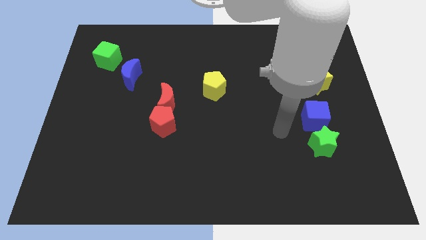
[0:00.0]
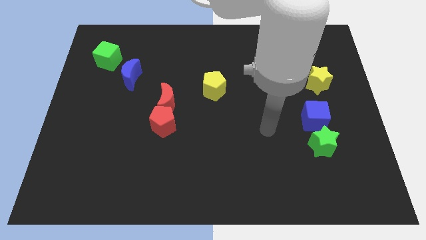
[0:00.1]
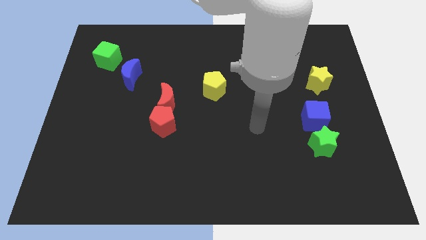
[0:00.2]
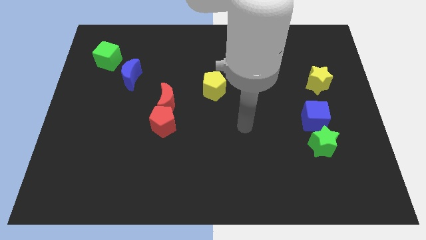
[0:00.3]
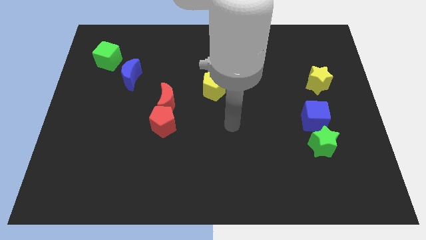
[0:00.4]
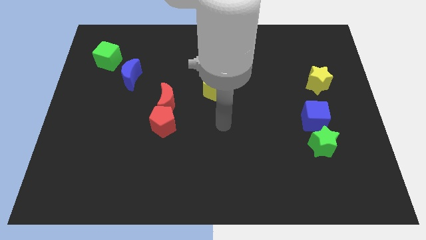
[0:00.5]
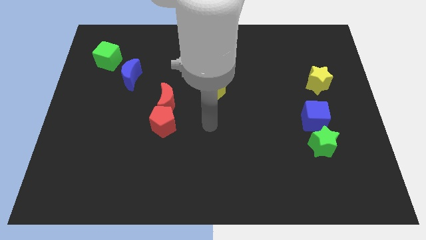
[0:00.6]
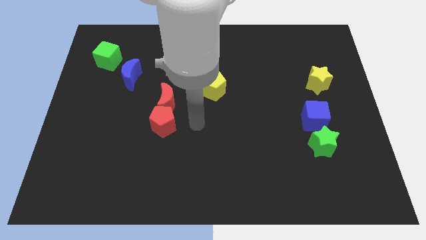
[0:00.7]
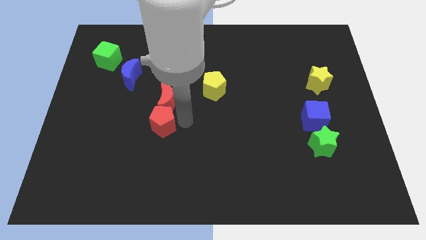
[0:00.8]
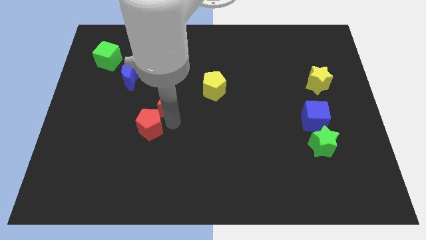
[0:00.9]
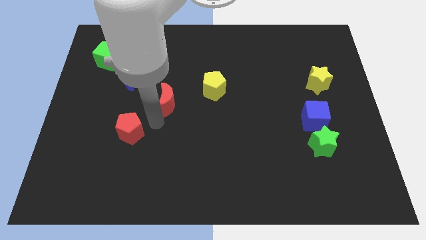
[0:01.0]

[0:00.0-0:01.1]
pull the red moon apart from the red pentagon

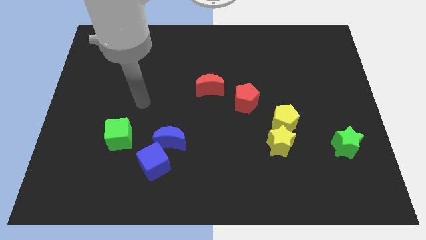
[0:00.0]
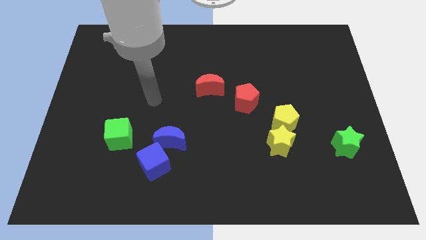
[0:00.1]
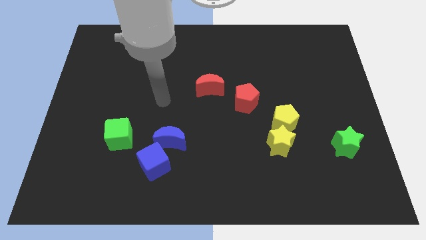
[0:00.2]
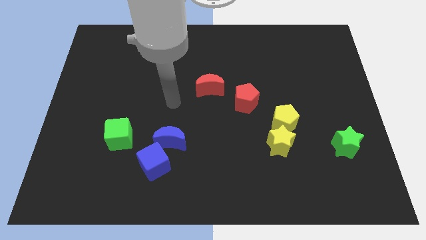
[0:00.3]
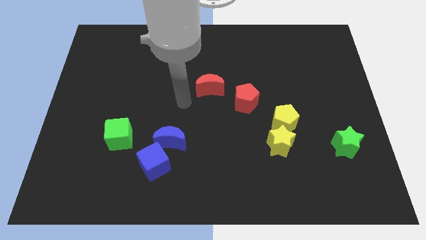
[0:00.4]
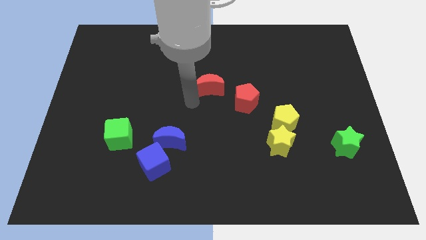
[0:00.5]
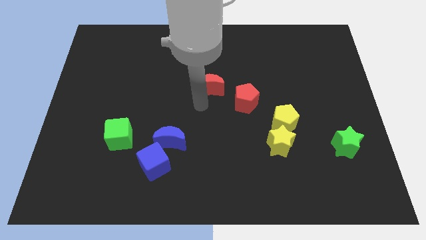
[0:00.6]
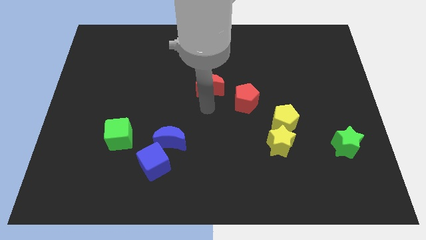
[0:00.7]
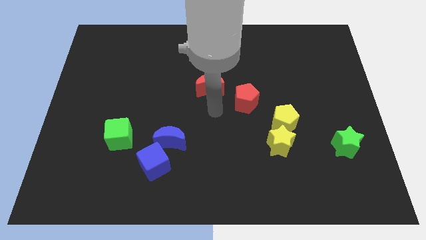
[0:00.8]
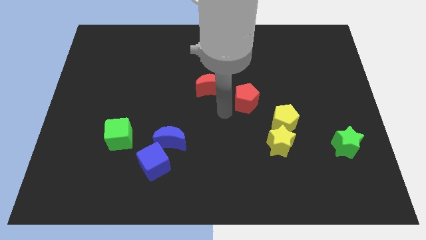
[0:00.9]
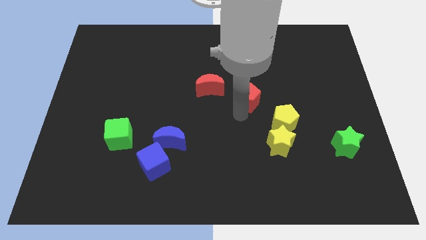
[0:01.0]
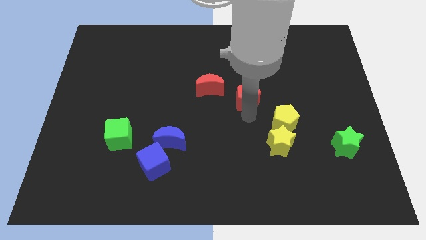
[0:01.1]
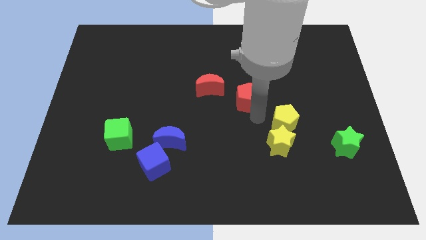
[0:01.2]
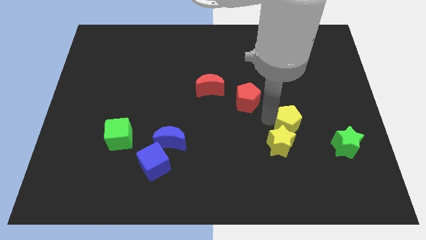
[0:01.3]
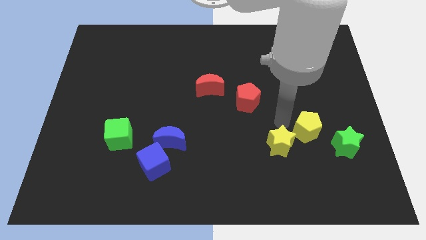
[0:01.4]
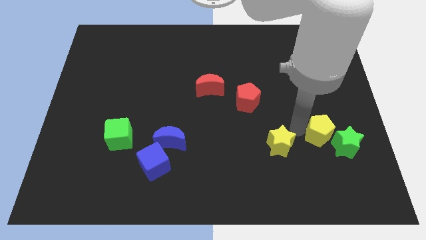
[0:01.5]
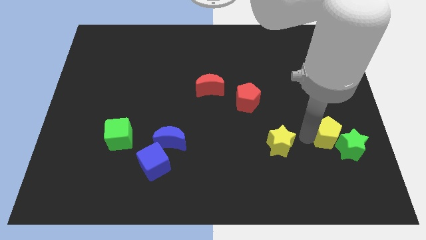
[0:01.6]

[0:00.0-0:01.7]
separate the yellow star from the yellow pentagon

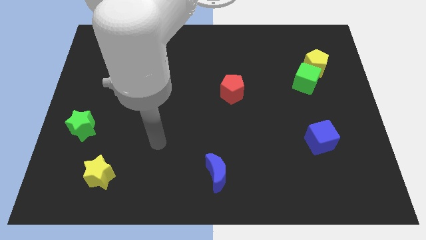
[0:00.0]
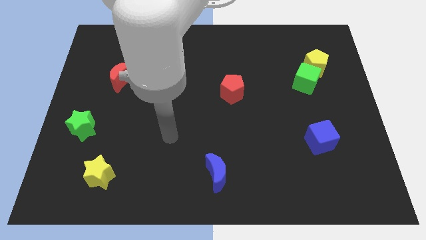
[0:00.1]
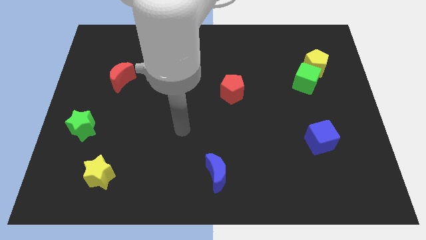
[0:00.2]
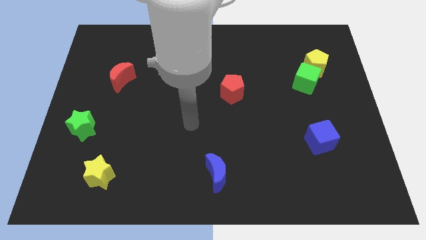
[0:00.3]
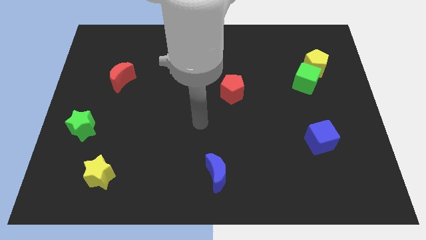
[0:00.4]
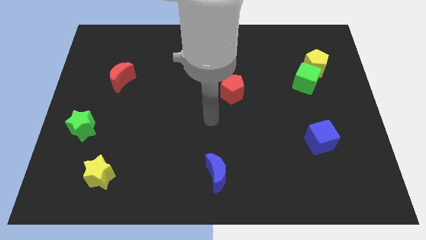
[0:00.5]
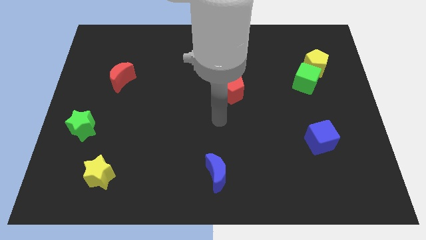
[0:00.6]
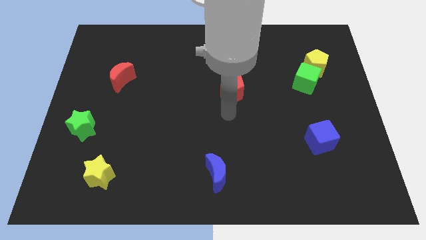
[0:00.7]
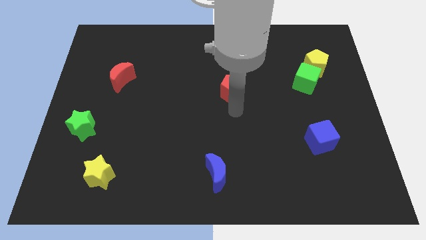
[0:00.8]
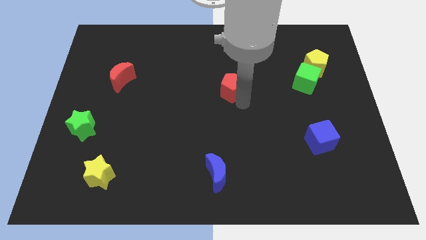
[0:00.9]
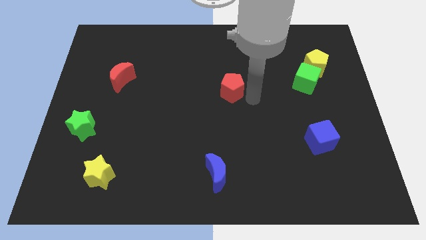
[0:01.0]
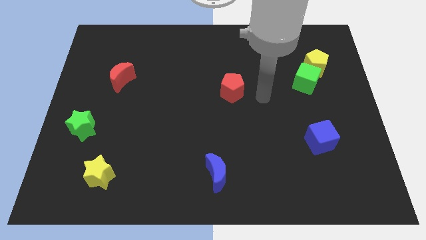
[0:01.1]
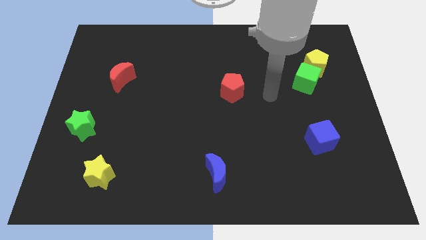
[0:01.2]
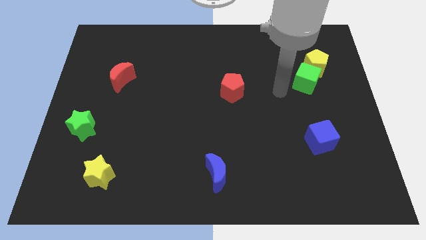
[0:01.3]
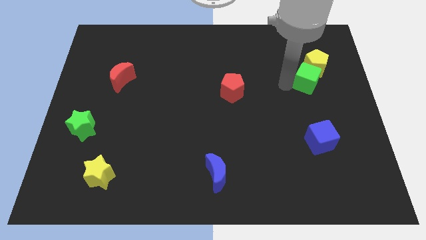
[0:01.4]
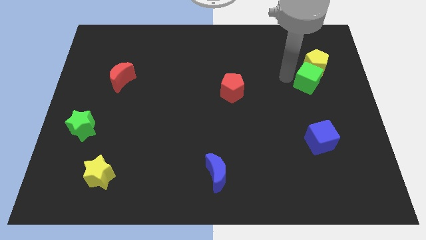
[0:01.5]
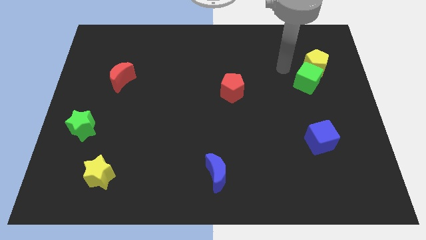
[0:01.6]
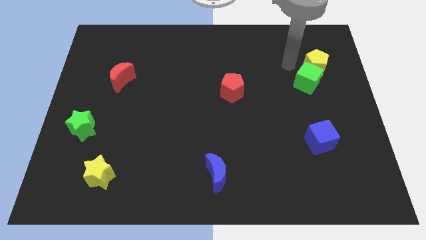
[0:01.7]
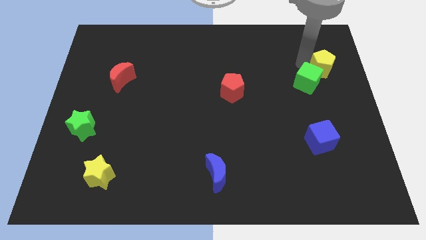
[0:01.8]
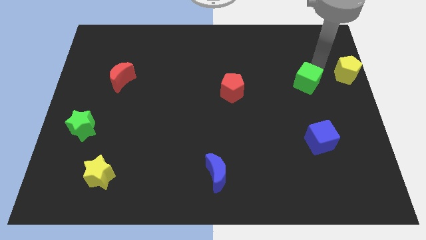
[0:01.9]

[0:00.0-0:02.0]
move the green cube away from the yellow pentagon

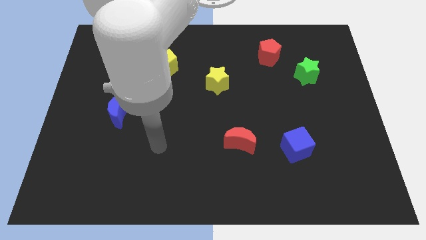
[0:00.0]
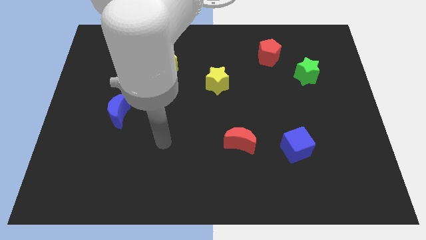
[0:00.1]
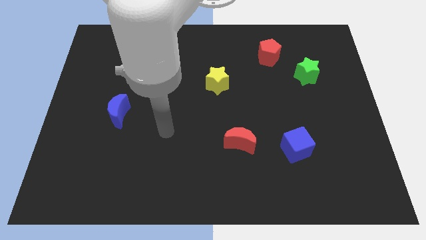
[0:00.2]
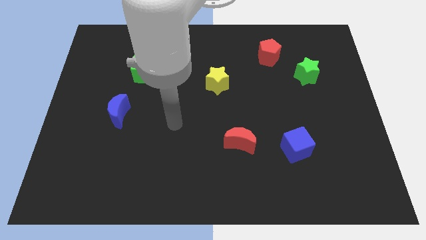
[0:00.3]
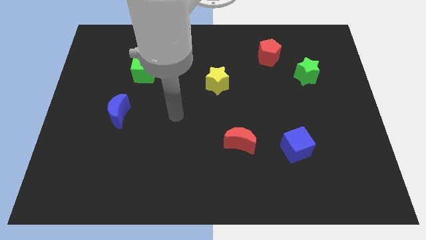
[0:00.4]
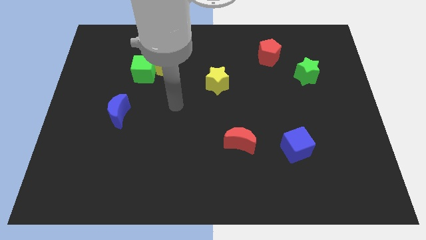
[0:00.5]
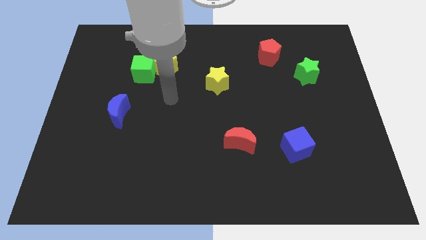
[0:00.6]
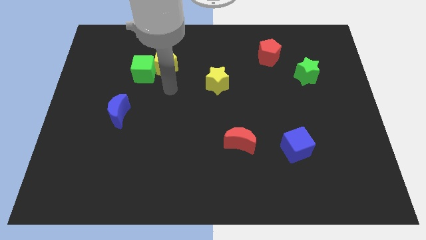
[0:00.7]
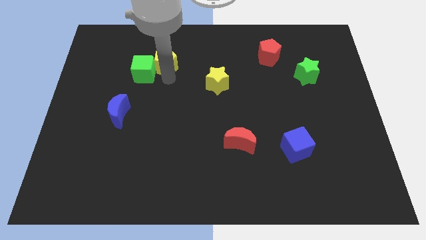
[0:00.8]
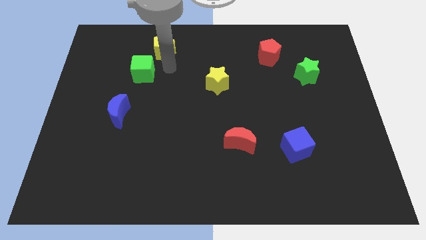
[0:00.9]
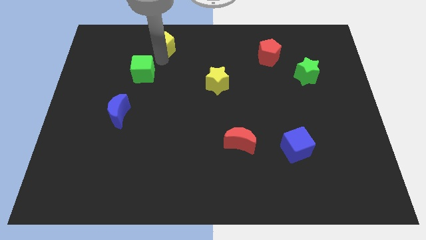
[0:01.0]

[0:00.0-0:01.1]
separate the green cube from the yellow pentagon

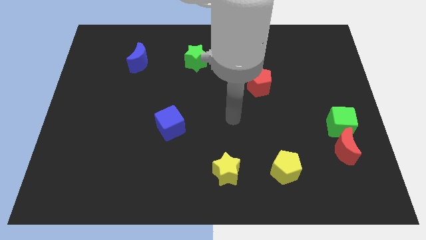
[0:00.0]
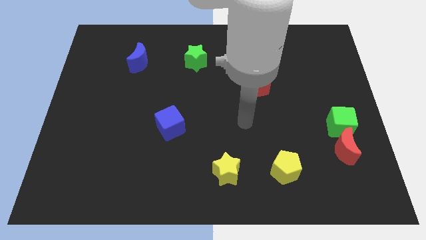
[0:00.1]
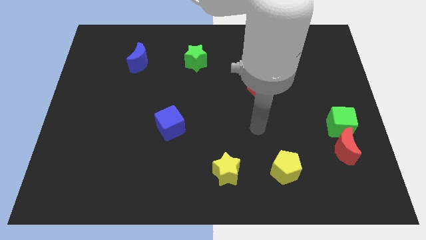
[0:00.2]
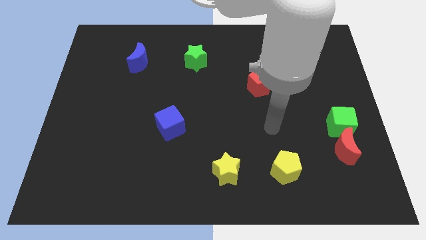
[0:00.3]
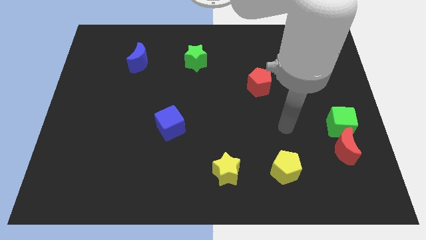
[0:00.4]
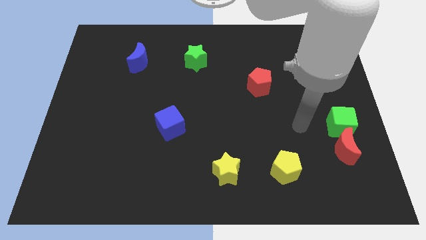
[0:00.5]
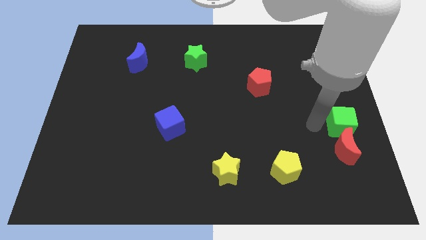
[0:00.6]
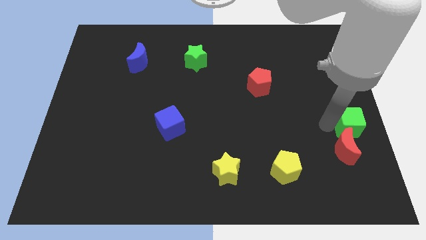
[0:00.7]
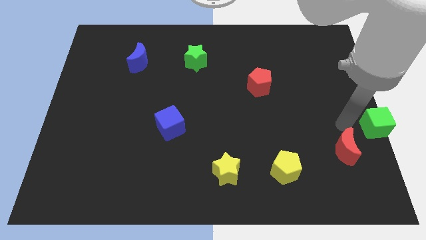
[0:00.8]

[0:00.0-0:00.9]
pull the red moon apart from the green cube

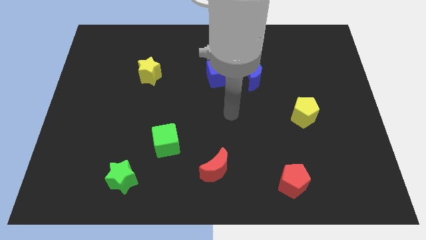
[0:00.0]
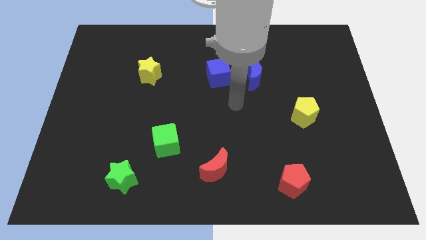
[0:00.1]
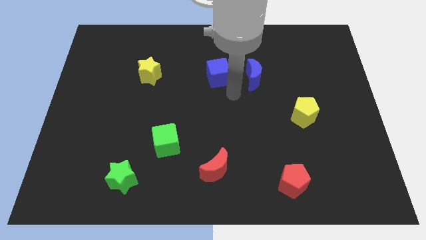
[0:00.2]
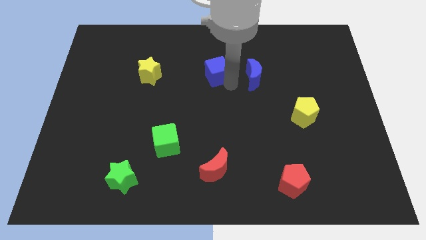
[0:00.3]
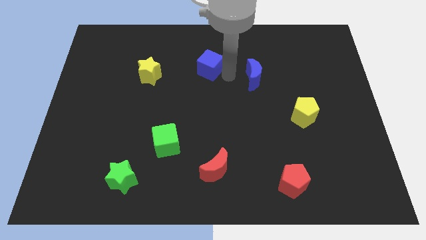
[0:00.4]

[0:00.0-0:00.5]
separate the blue moon from the blue cube

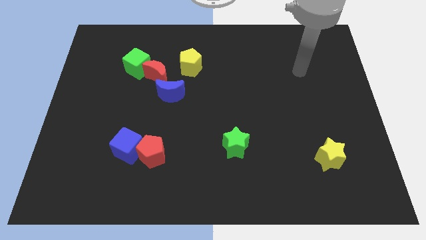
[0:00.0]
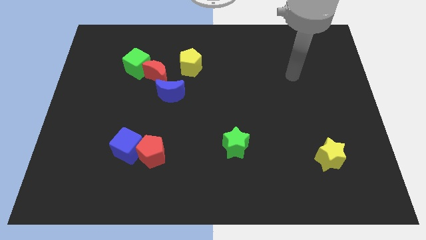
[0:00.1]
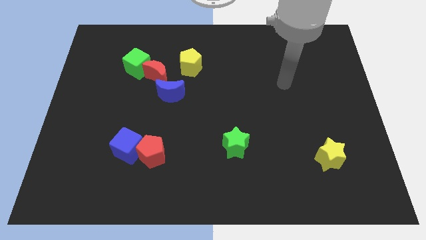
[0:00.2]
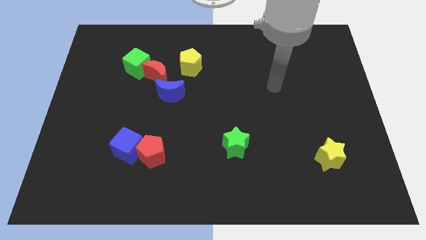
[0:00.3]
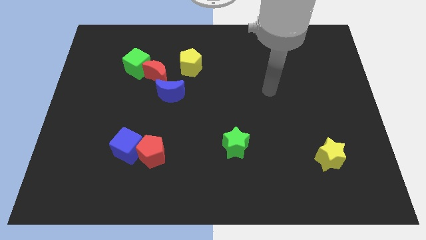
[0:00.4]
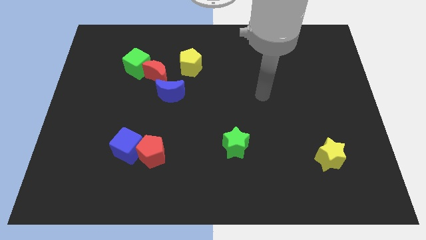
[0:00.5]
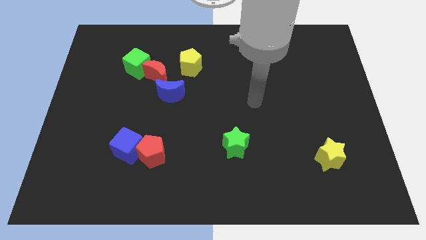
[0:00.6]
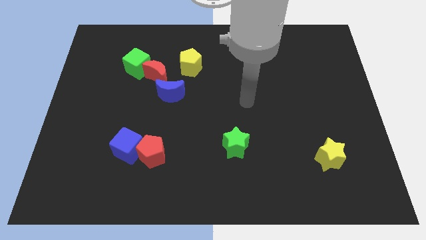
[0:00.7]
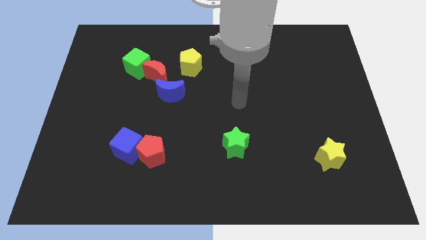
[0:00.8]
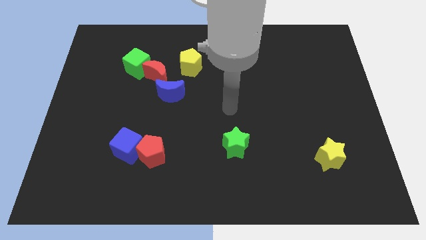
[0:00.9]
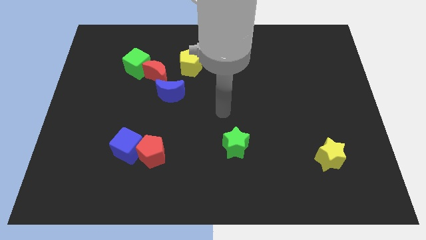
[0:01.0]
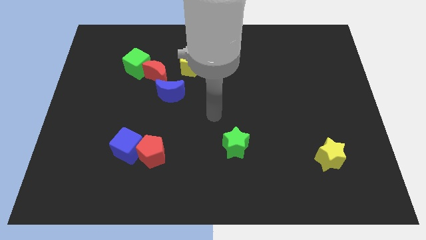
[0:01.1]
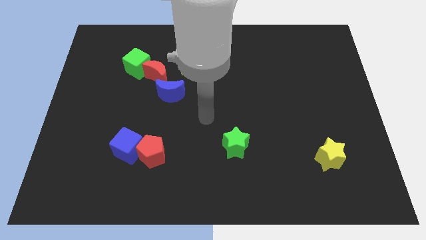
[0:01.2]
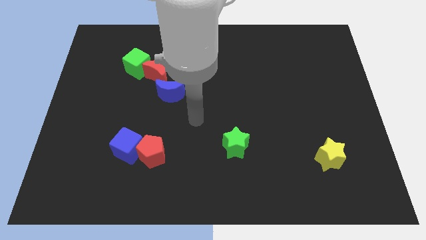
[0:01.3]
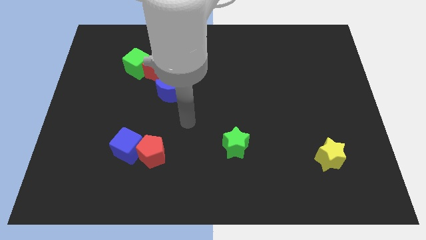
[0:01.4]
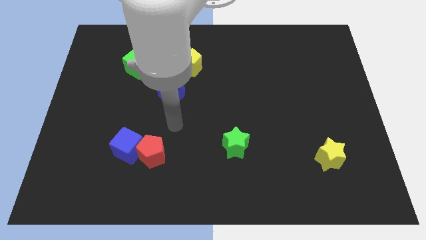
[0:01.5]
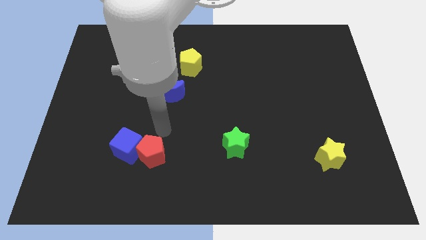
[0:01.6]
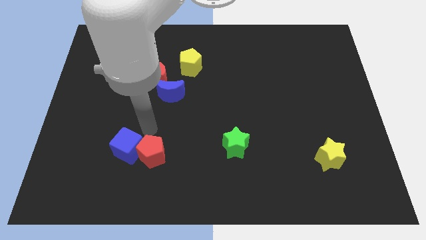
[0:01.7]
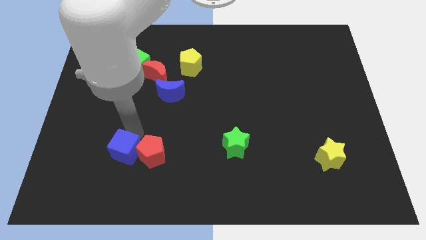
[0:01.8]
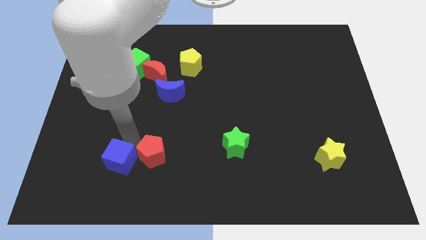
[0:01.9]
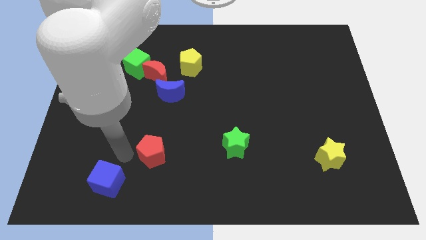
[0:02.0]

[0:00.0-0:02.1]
pull the red pentagon apart from the blue cube
